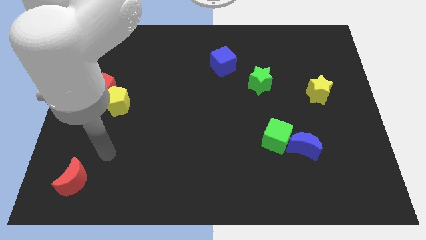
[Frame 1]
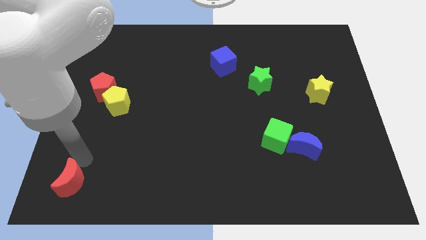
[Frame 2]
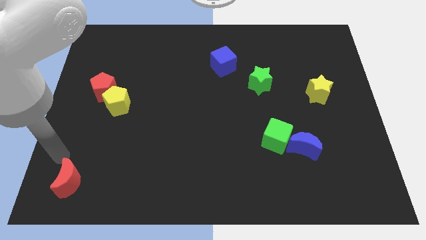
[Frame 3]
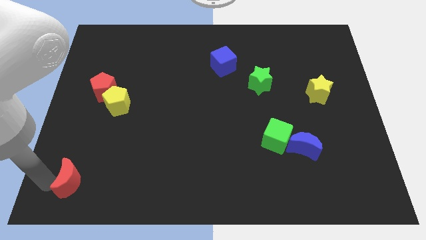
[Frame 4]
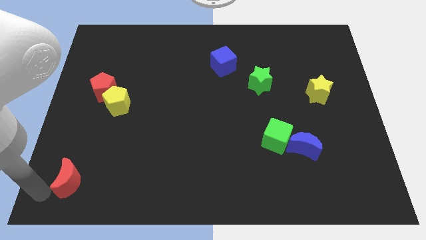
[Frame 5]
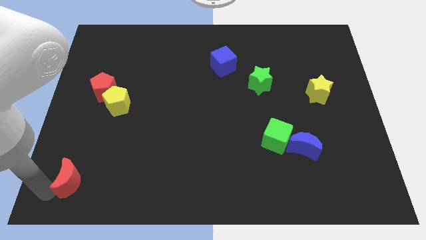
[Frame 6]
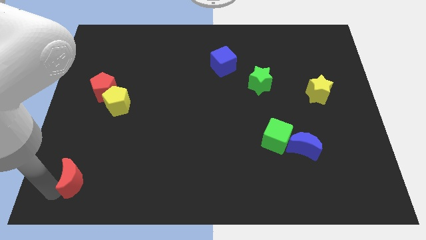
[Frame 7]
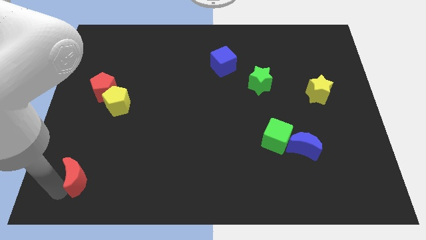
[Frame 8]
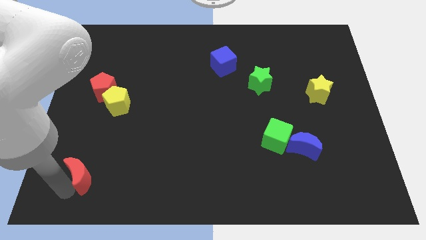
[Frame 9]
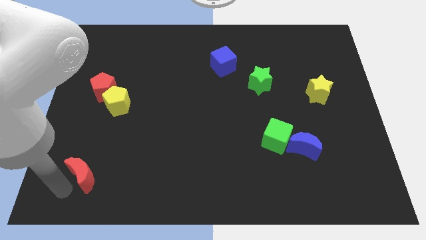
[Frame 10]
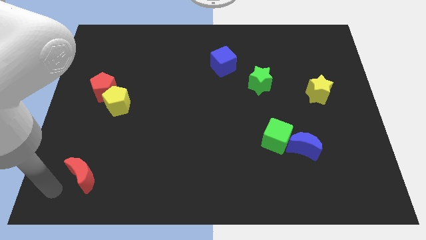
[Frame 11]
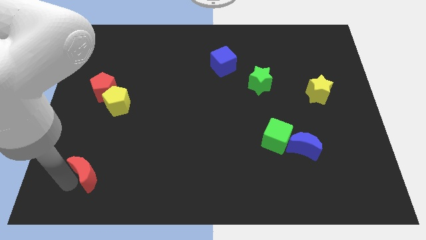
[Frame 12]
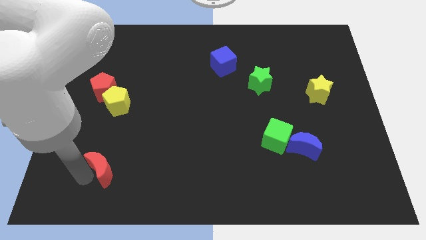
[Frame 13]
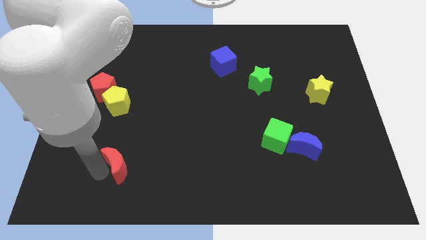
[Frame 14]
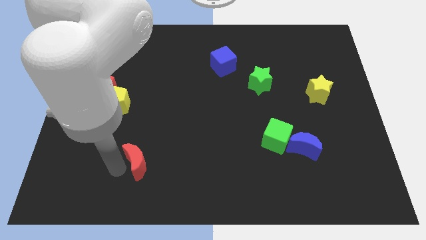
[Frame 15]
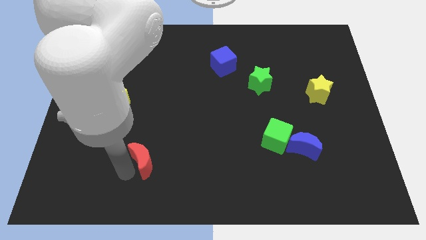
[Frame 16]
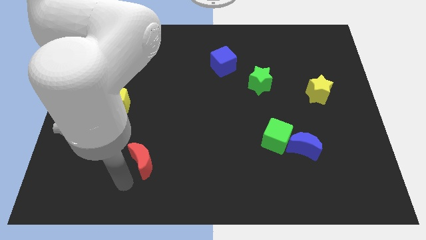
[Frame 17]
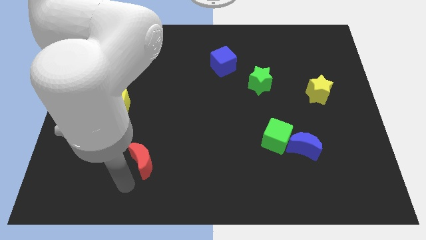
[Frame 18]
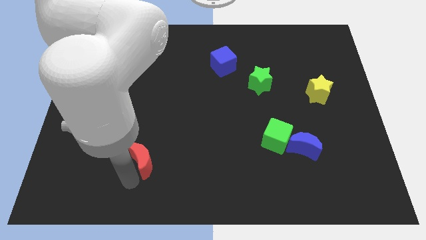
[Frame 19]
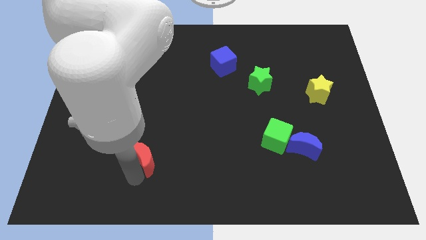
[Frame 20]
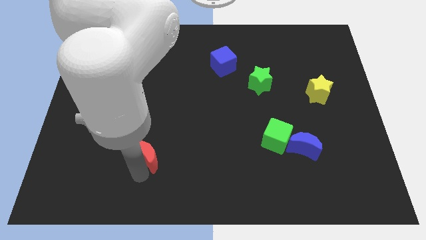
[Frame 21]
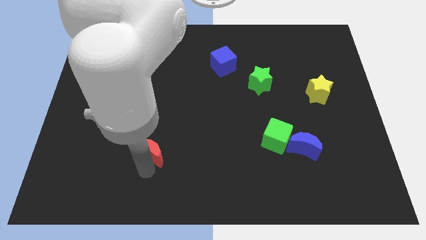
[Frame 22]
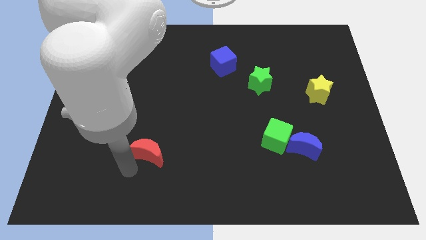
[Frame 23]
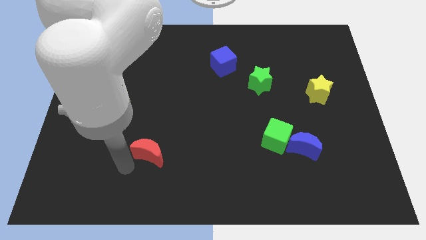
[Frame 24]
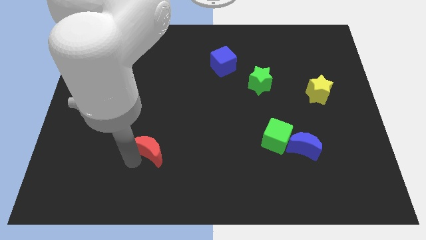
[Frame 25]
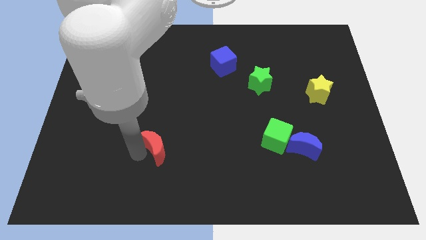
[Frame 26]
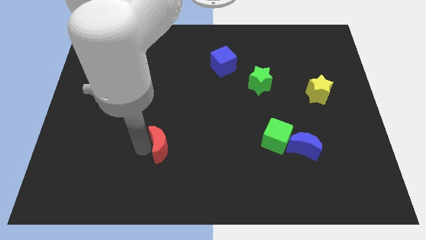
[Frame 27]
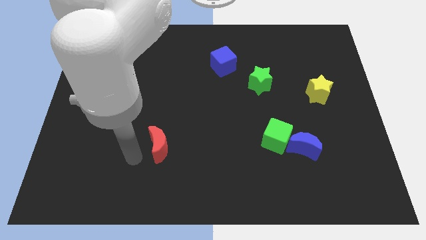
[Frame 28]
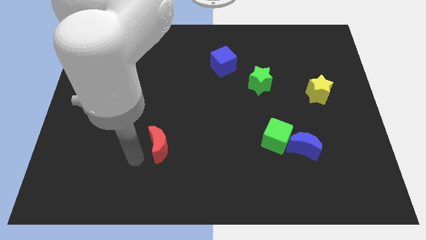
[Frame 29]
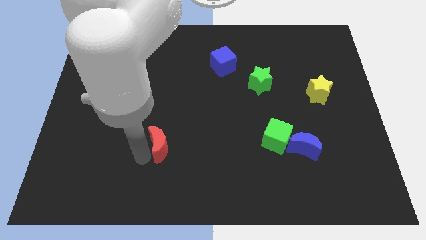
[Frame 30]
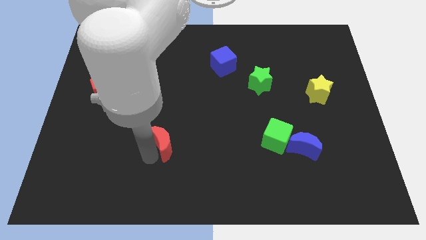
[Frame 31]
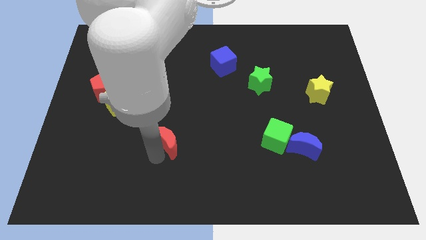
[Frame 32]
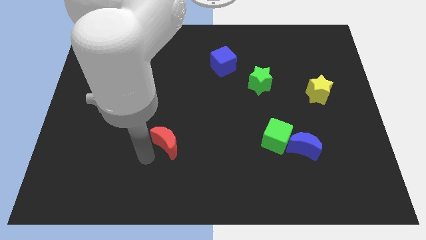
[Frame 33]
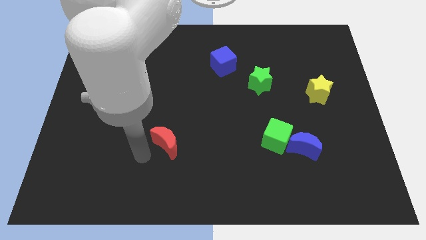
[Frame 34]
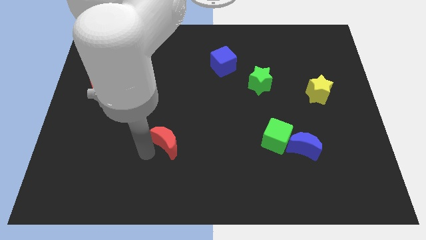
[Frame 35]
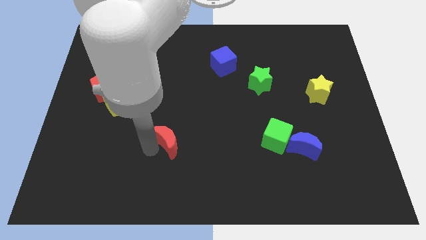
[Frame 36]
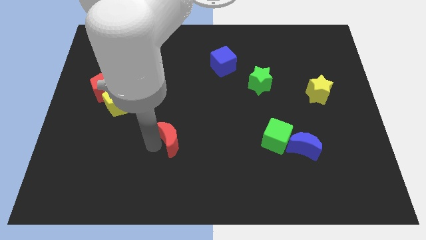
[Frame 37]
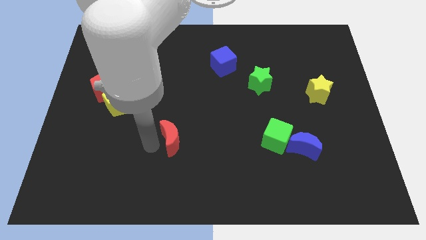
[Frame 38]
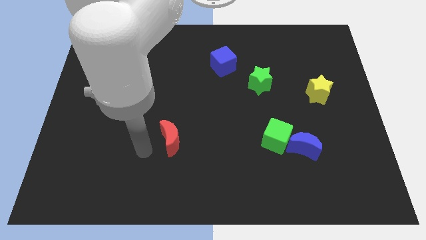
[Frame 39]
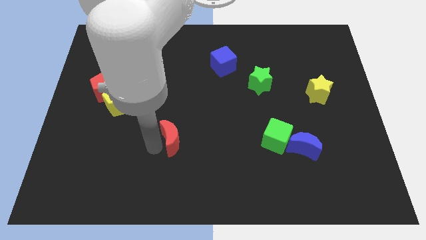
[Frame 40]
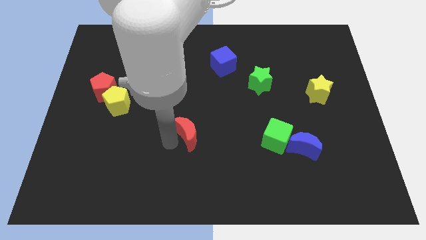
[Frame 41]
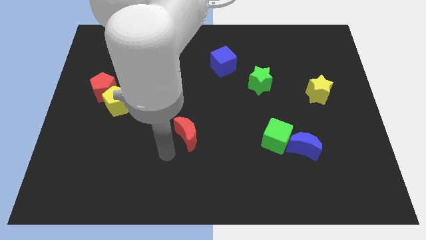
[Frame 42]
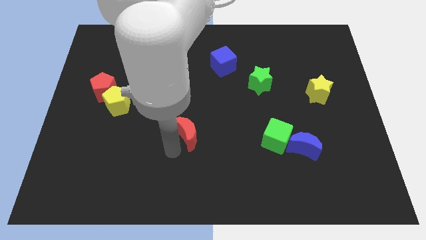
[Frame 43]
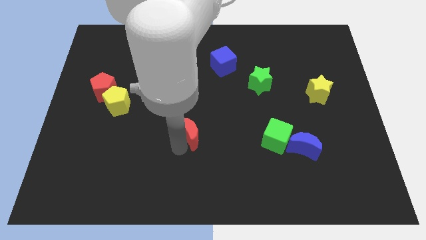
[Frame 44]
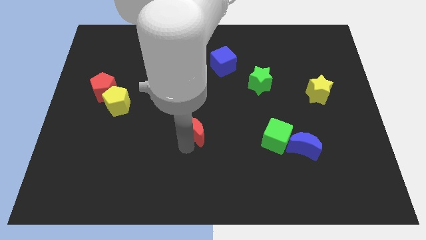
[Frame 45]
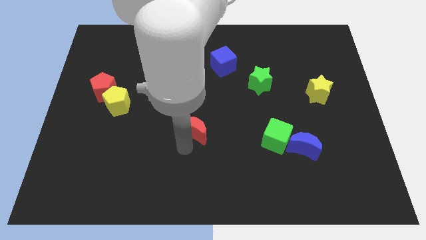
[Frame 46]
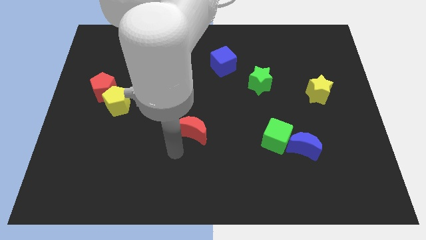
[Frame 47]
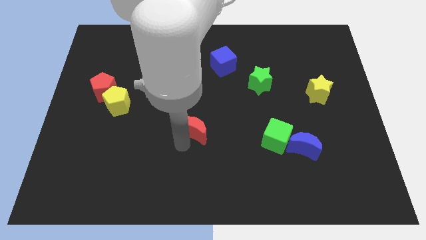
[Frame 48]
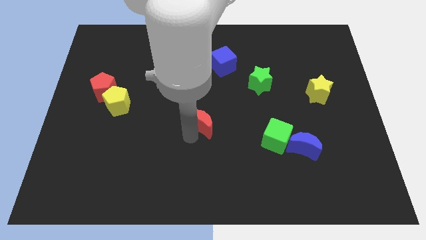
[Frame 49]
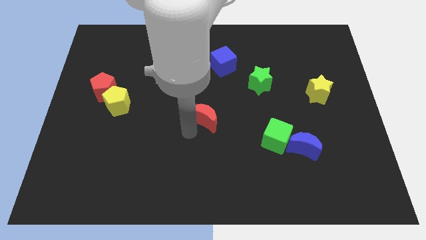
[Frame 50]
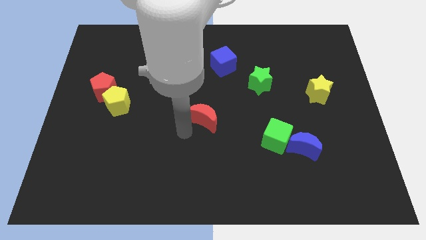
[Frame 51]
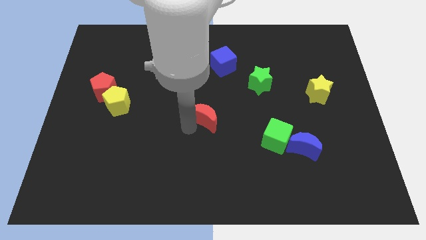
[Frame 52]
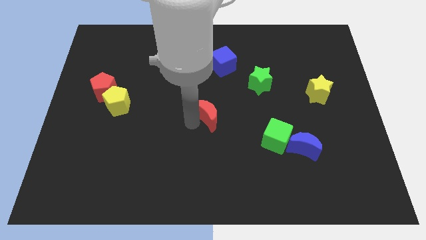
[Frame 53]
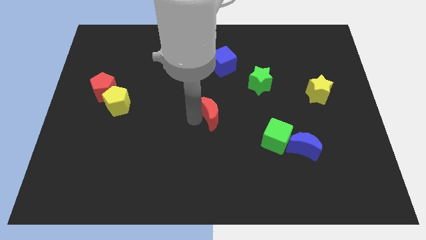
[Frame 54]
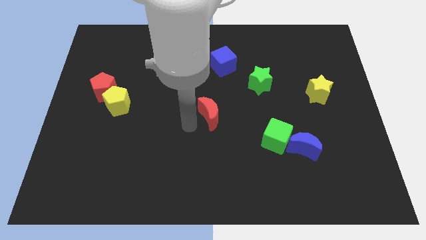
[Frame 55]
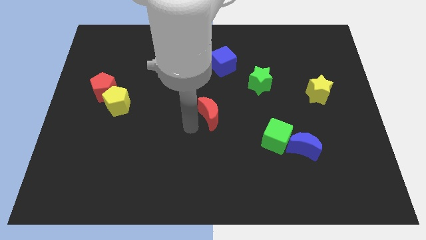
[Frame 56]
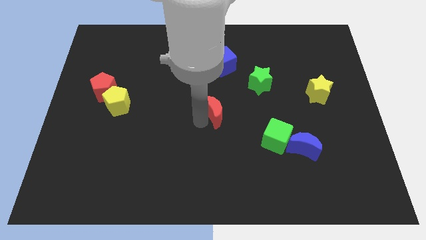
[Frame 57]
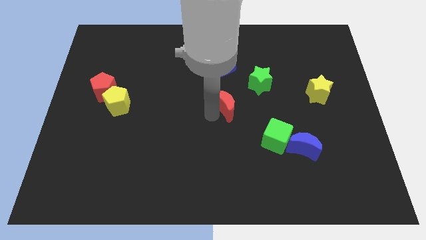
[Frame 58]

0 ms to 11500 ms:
put the red moon to the bottom left side of the green star

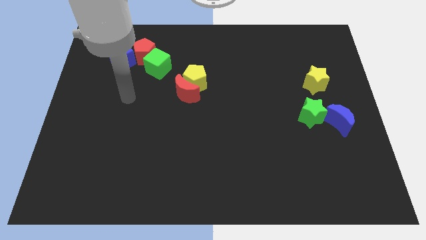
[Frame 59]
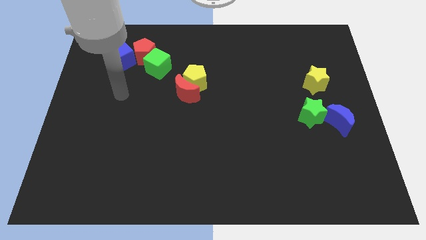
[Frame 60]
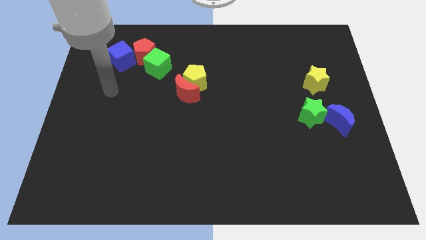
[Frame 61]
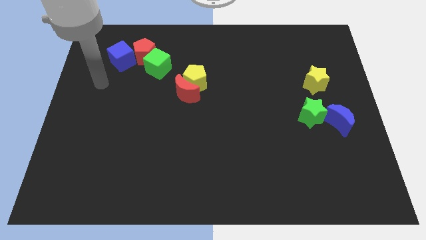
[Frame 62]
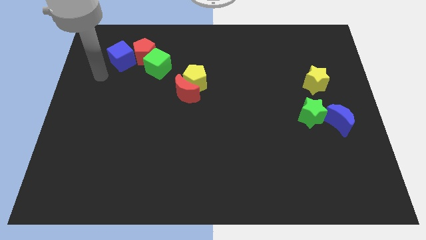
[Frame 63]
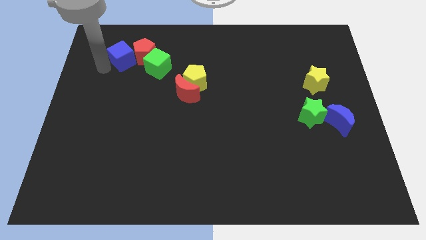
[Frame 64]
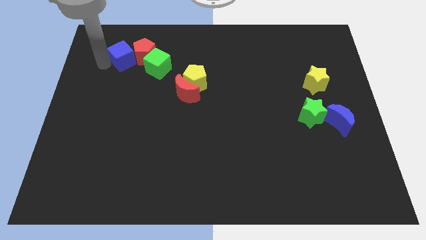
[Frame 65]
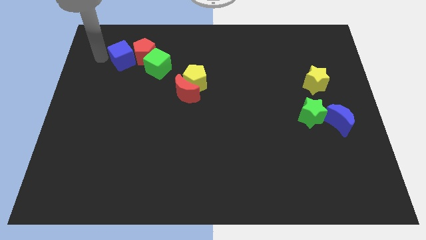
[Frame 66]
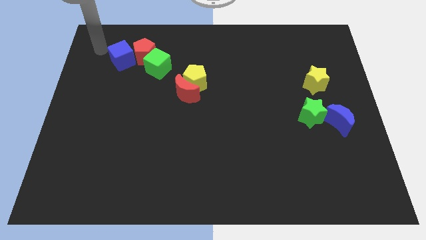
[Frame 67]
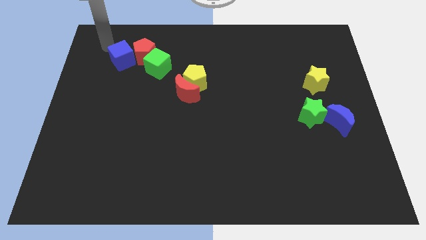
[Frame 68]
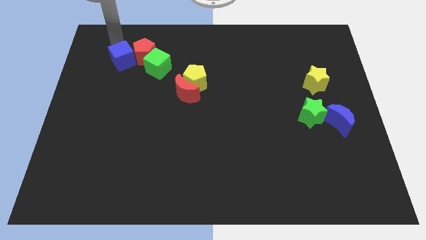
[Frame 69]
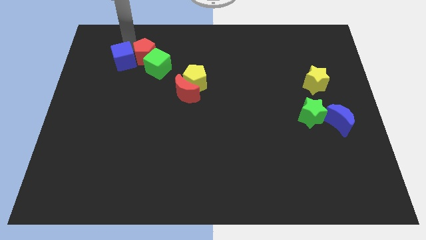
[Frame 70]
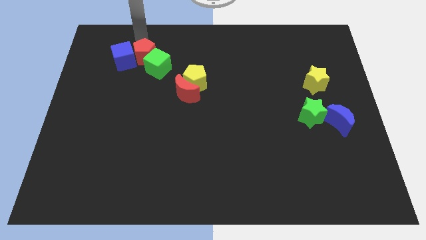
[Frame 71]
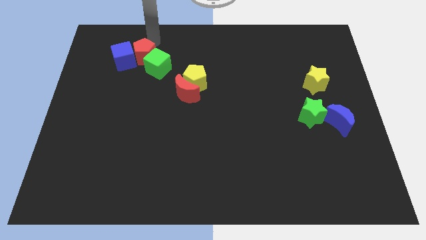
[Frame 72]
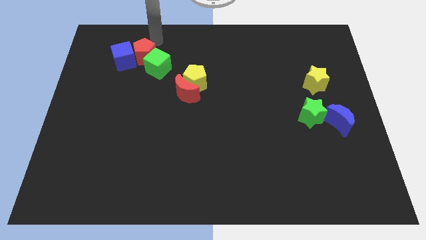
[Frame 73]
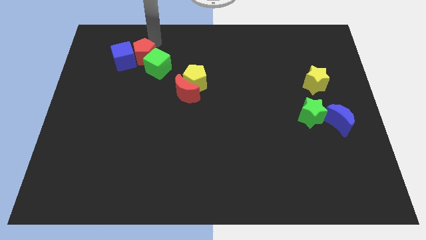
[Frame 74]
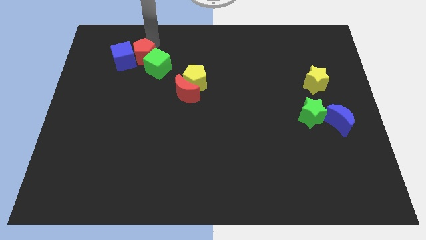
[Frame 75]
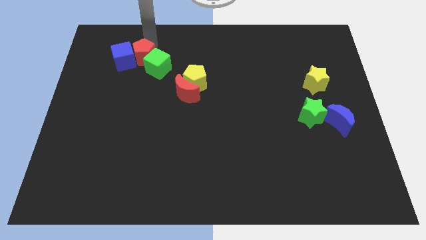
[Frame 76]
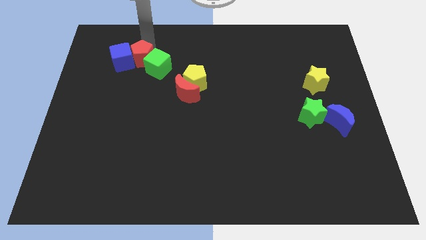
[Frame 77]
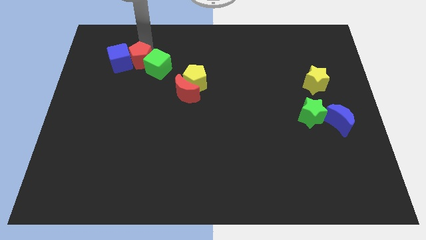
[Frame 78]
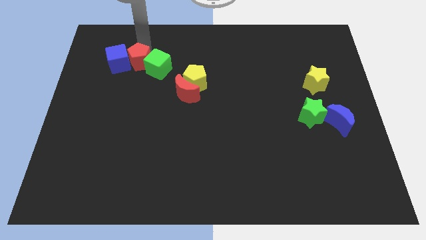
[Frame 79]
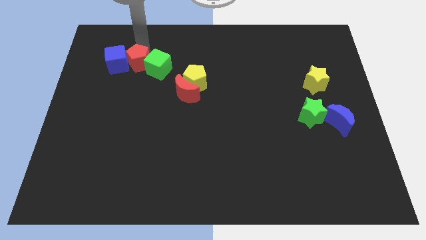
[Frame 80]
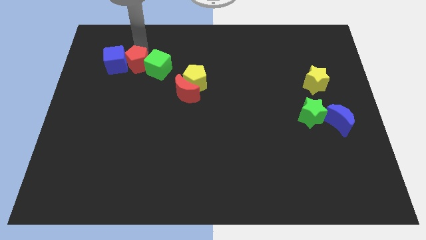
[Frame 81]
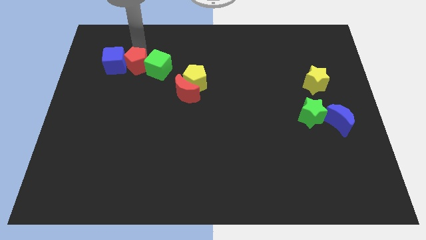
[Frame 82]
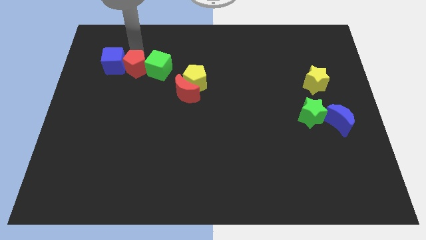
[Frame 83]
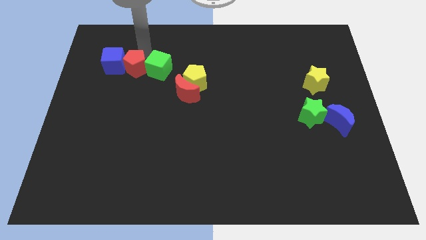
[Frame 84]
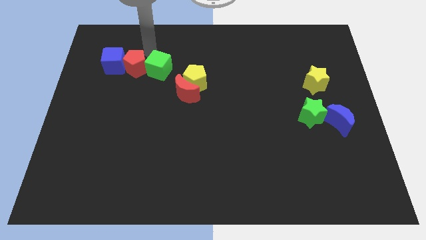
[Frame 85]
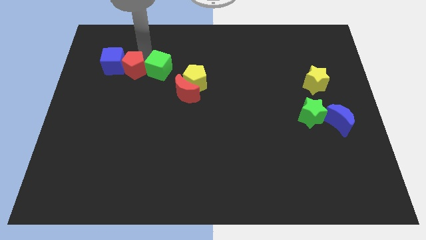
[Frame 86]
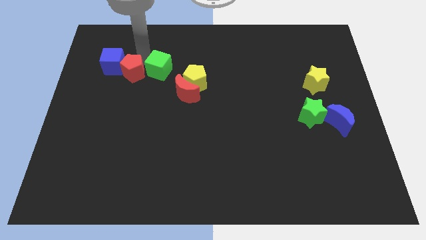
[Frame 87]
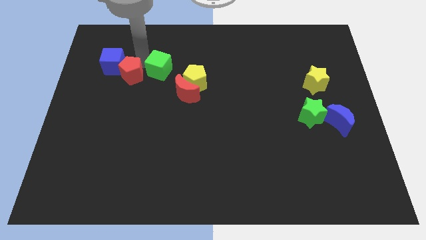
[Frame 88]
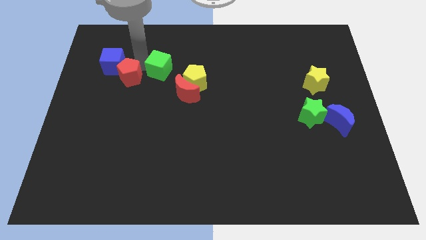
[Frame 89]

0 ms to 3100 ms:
push the red pentagon to the bottom side of the blue cube
